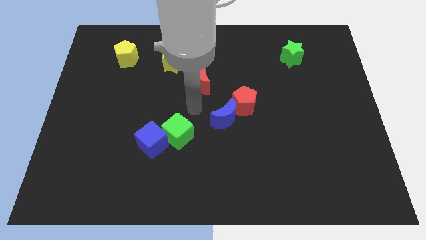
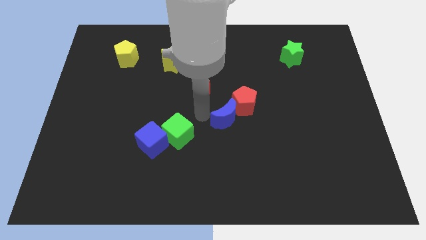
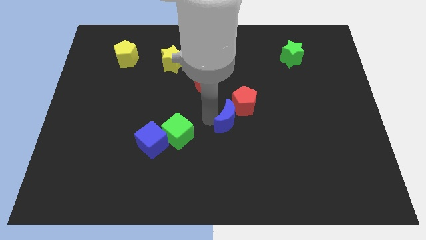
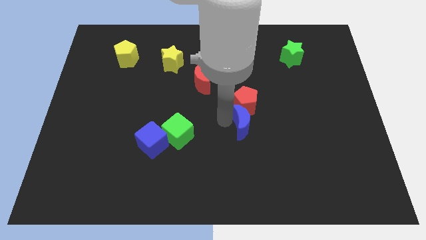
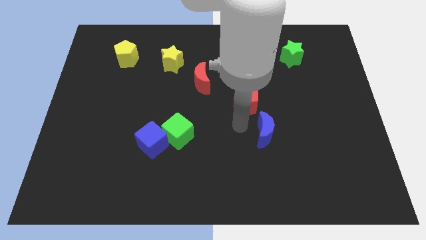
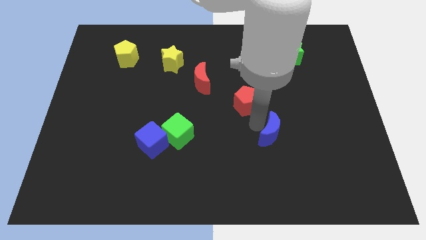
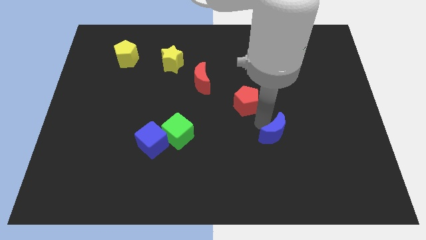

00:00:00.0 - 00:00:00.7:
separate the red pentagon from the blue moon

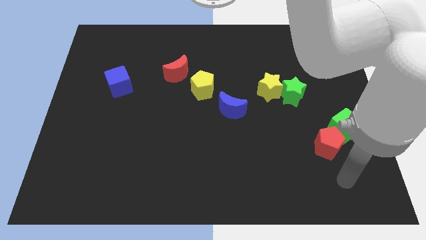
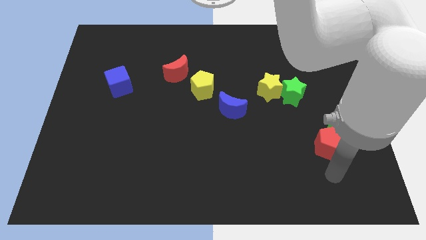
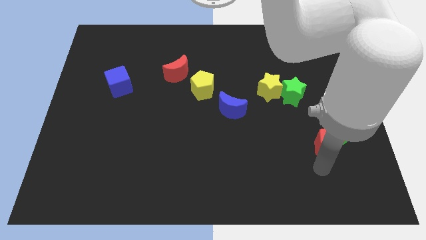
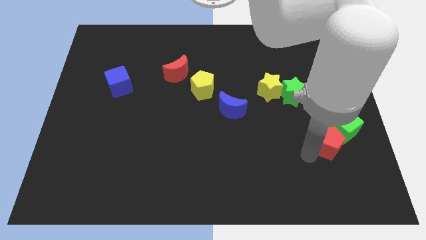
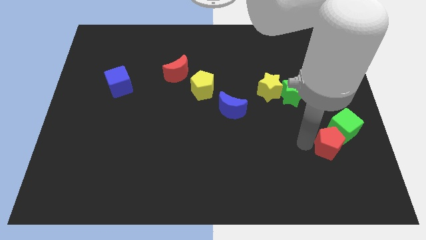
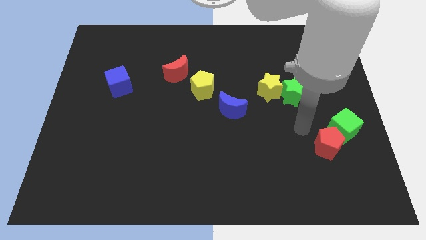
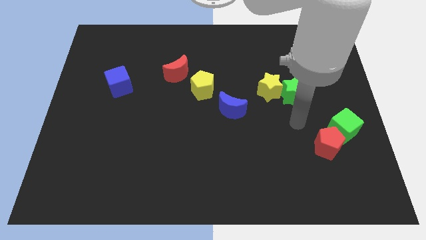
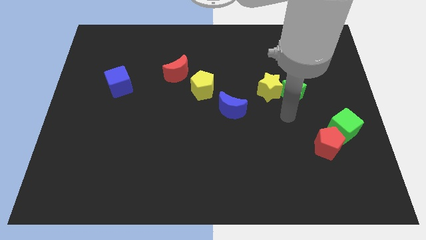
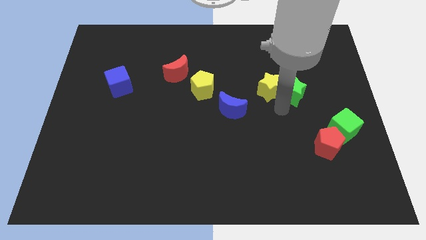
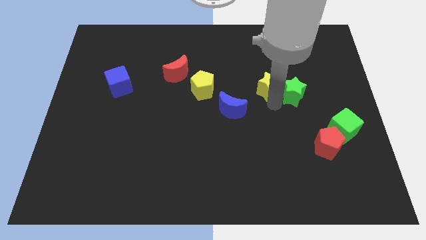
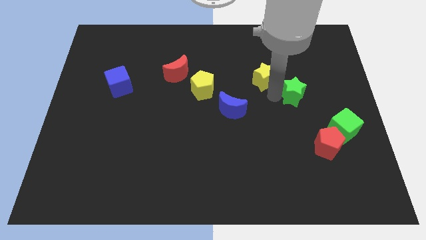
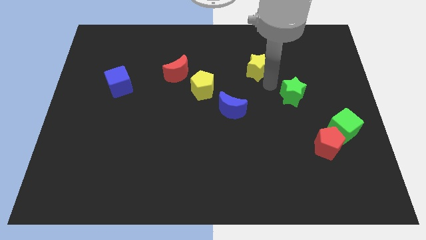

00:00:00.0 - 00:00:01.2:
pull the green star apart from the yellow star

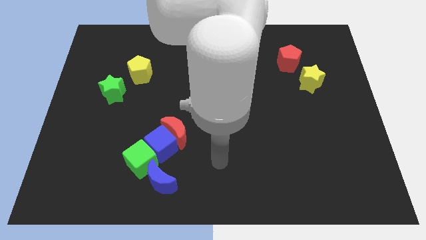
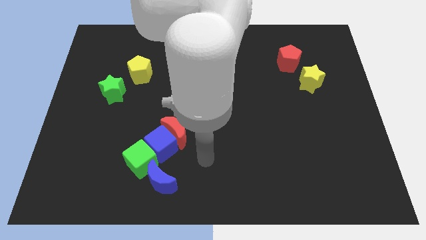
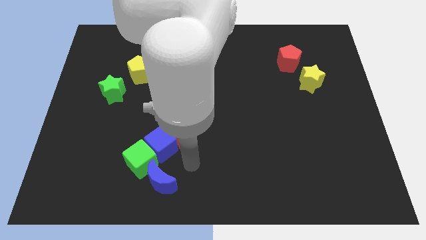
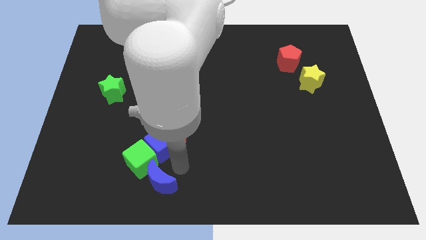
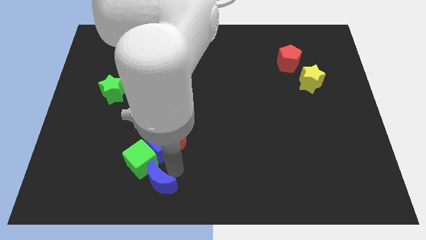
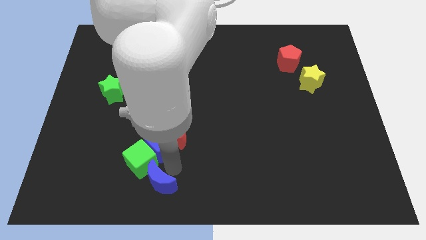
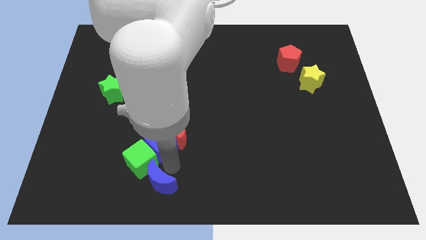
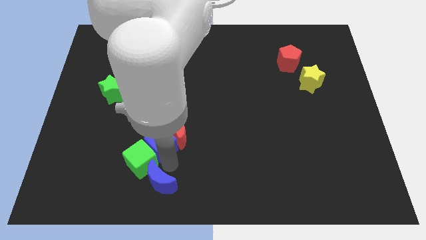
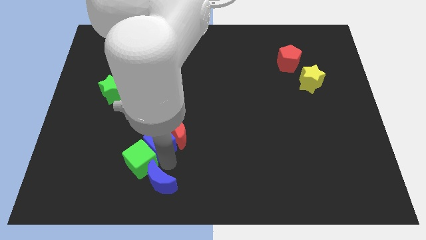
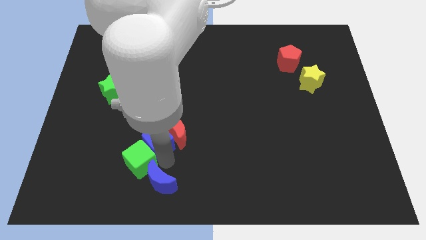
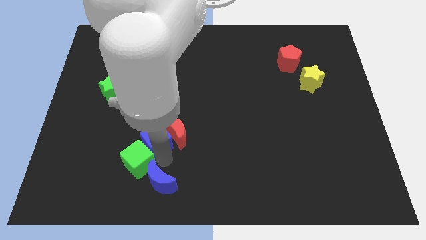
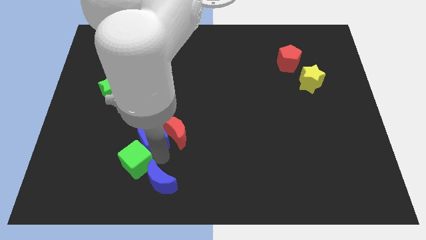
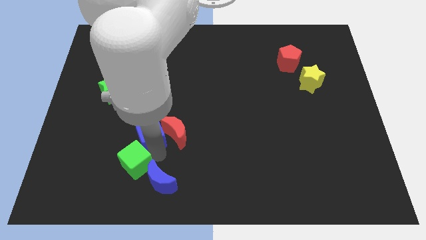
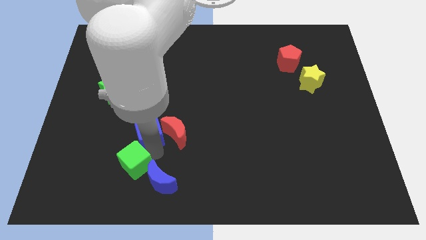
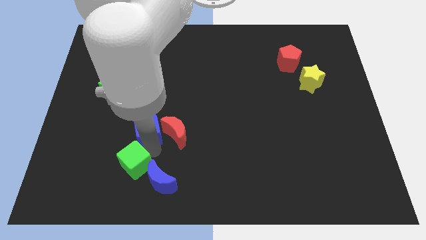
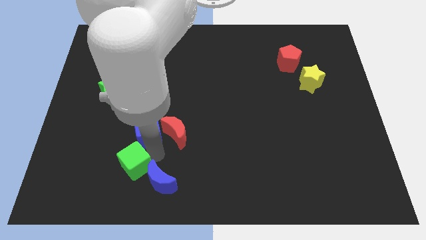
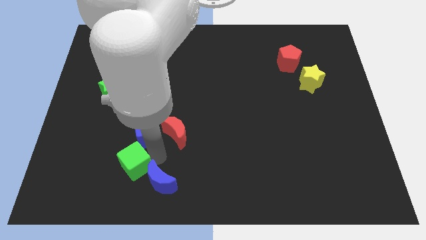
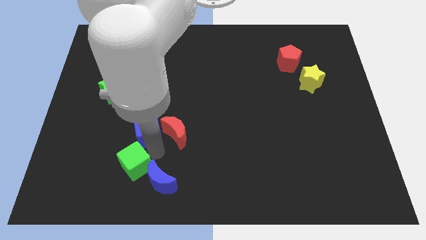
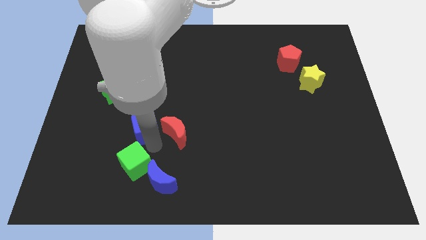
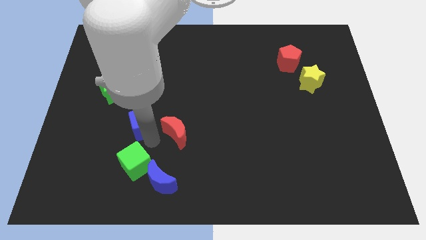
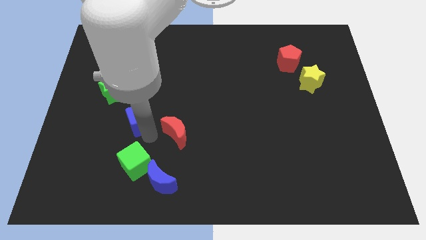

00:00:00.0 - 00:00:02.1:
move the blue cube away from the red moon, green cube, and blue moon

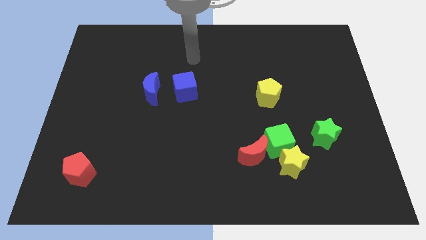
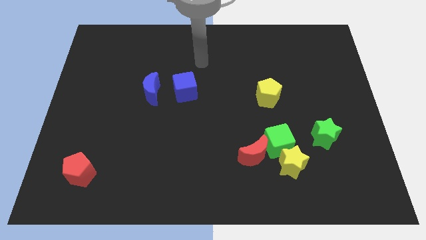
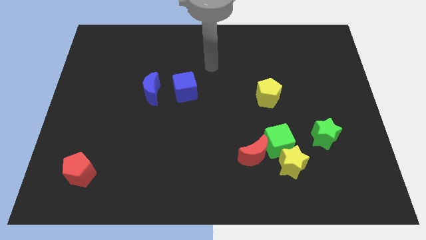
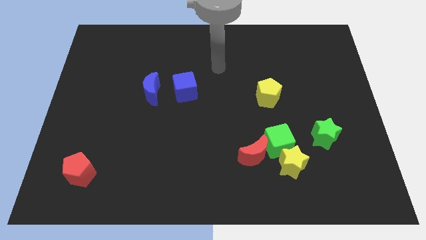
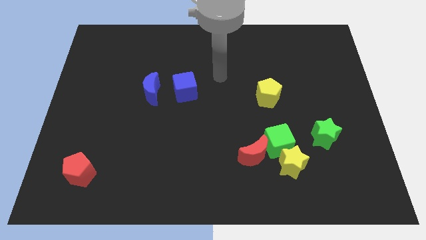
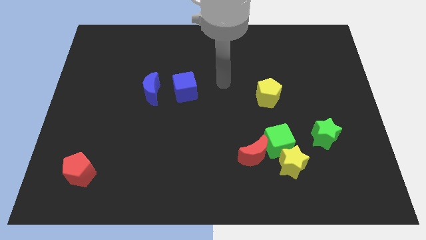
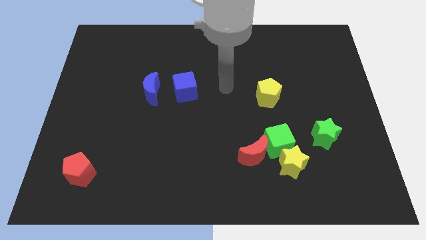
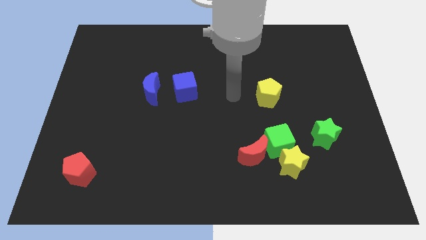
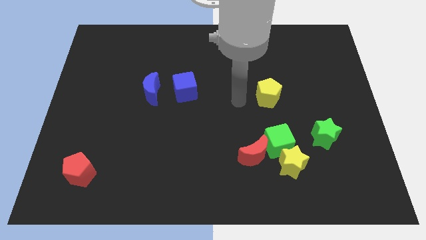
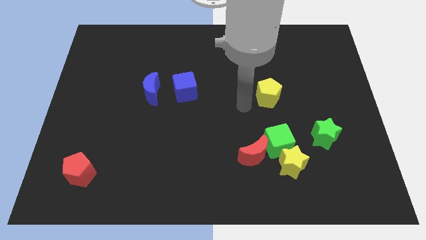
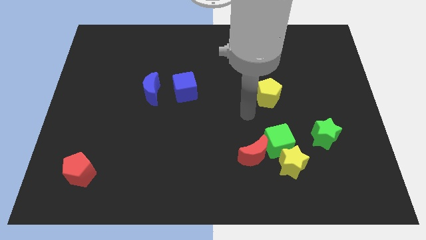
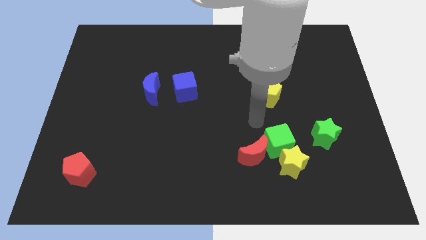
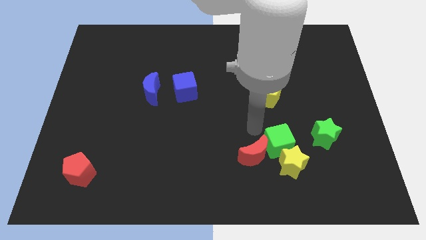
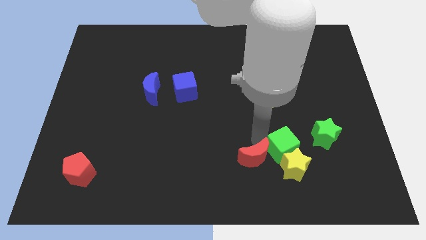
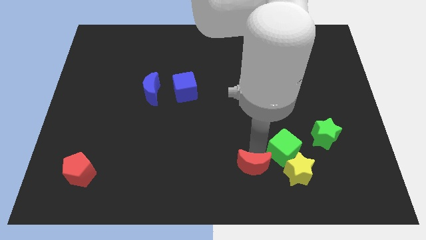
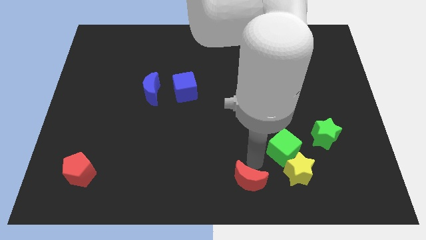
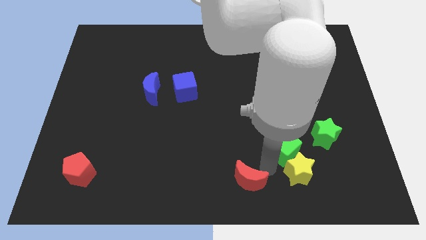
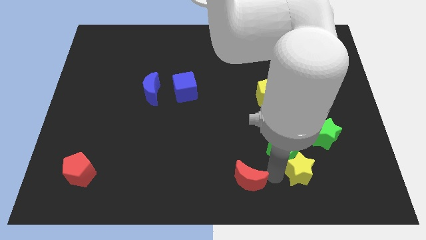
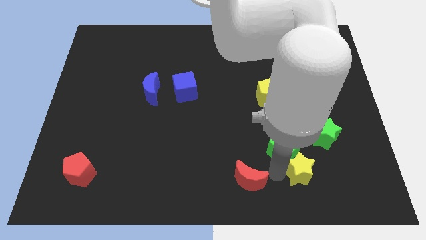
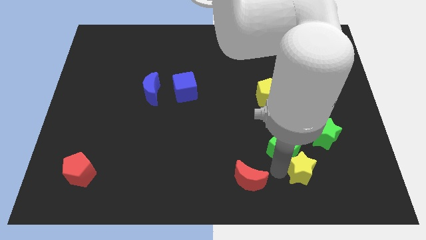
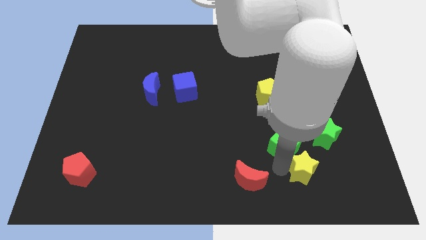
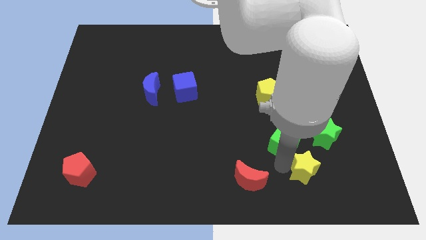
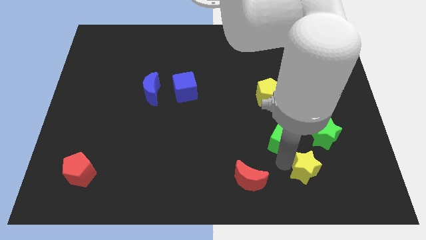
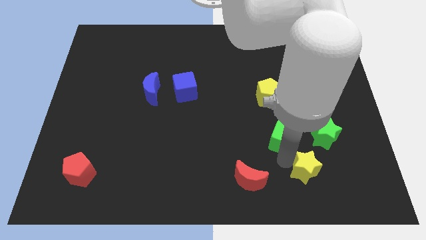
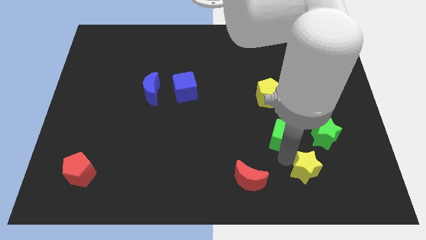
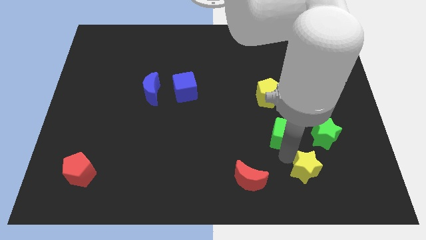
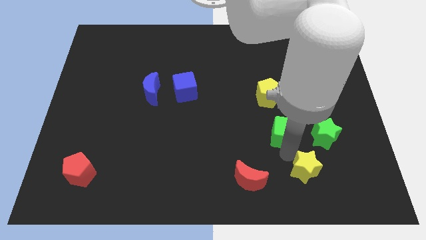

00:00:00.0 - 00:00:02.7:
move the green cube away from the yellow star and red moon

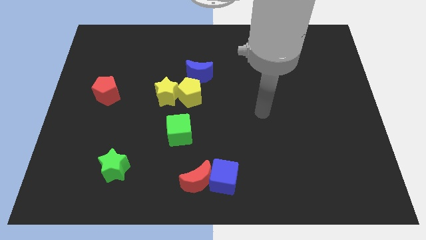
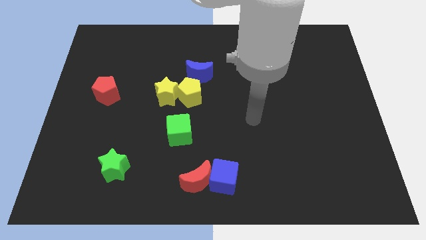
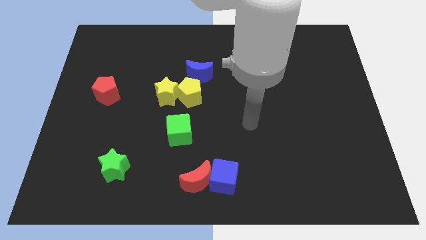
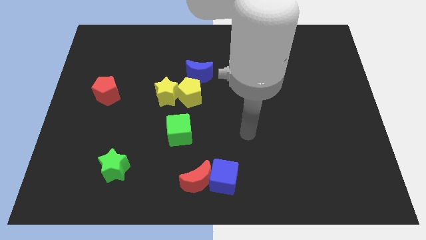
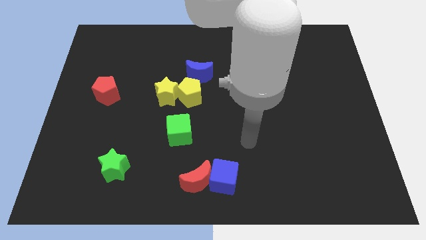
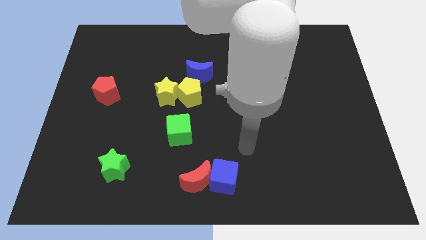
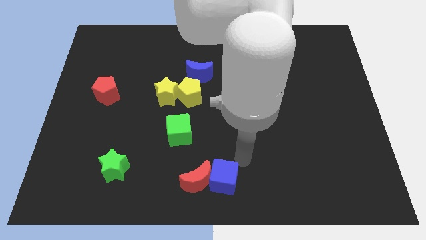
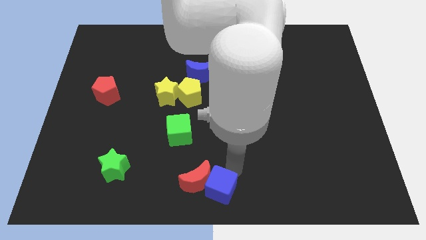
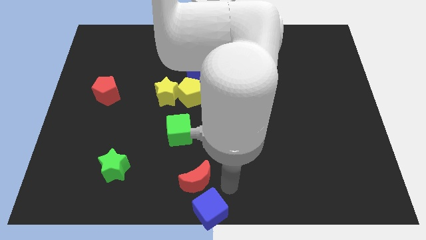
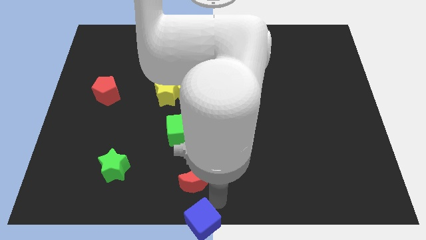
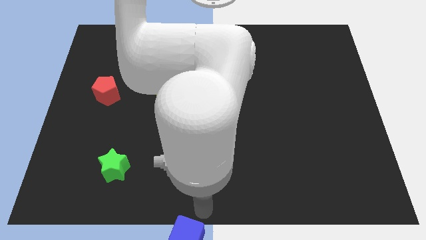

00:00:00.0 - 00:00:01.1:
pull the red moon apart from the blue cube

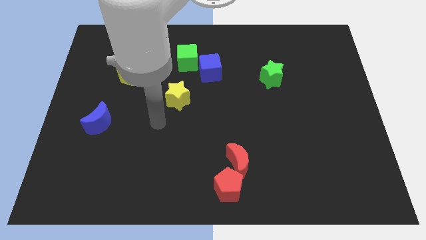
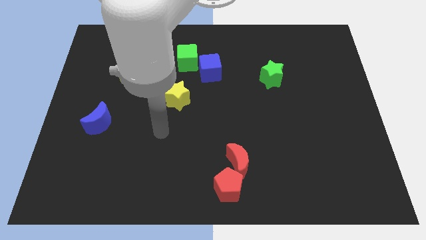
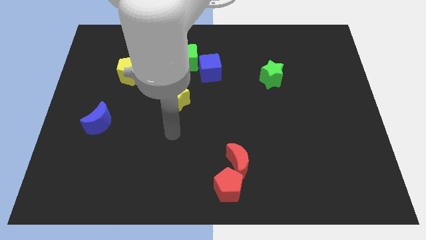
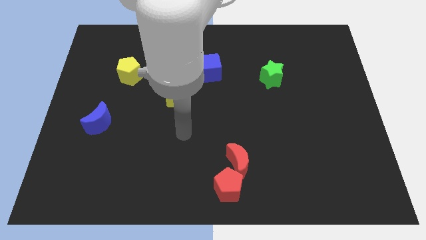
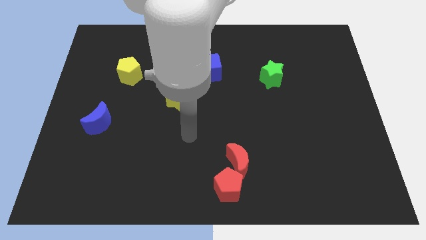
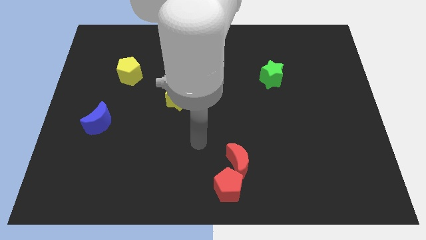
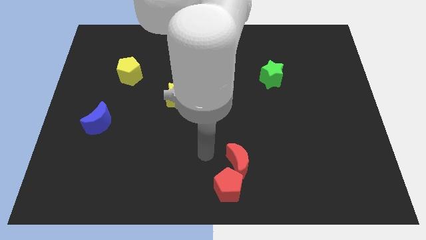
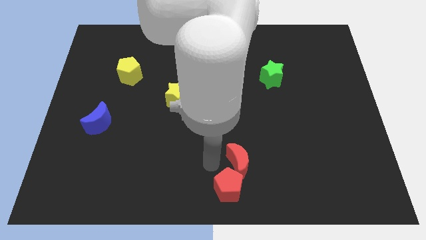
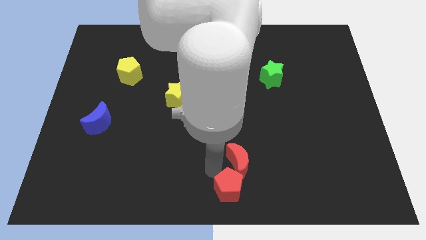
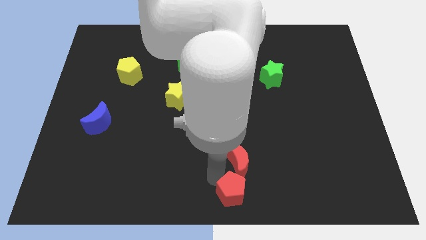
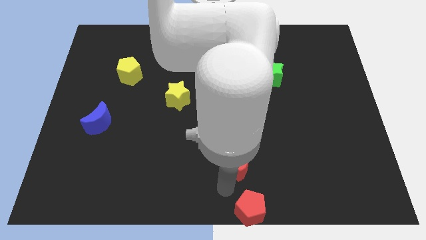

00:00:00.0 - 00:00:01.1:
move the red moon away from the red pentagon

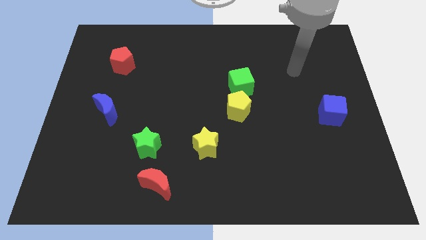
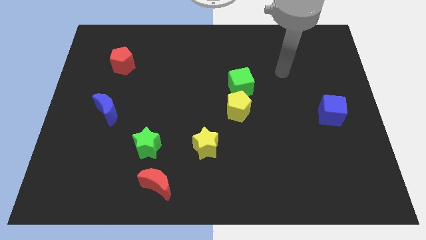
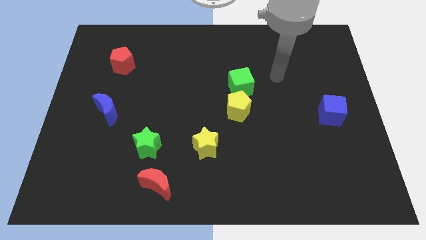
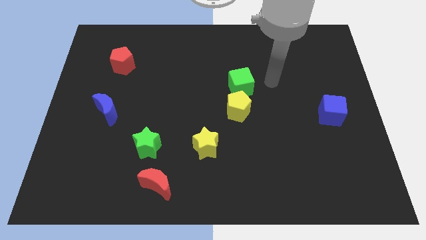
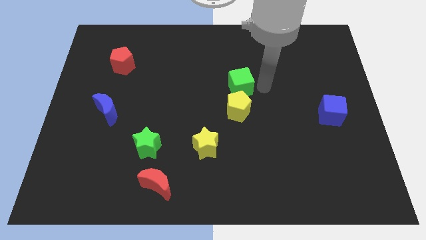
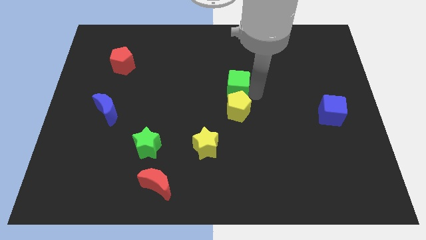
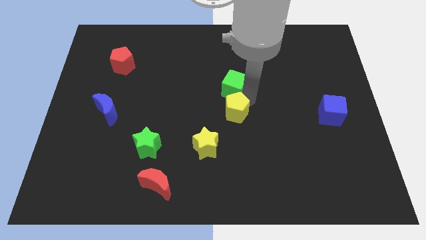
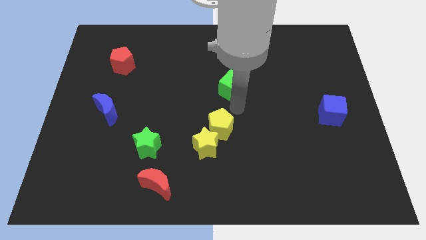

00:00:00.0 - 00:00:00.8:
pull the green cube apart from the yellow pentagon
